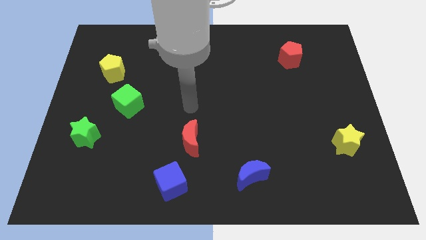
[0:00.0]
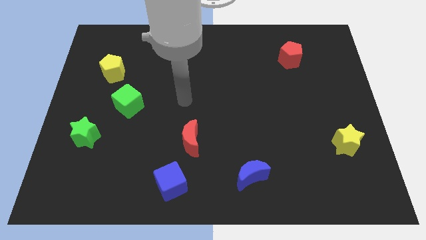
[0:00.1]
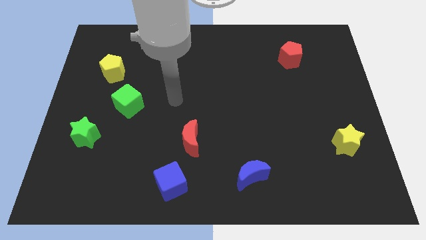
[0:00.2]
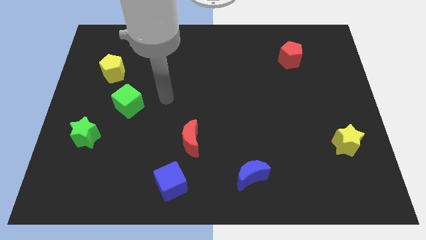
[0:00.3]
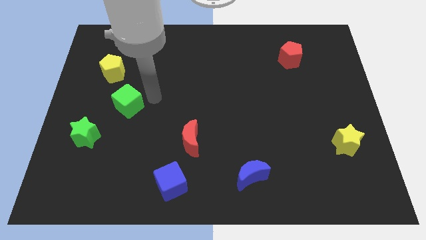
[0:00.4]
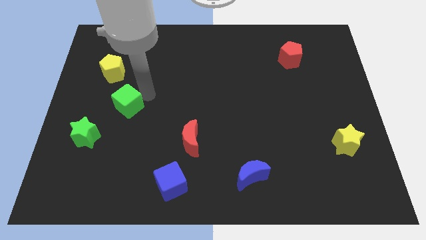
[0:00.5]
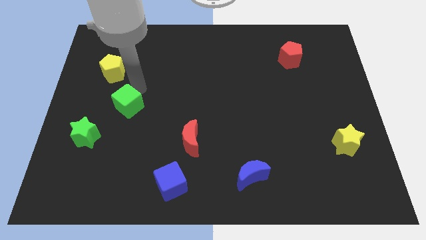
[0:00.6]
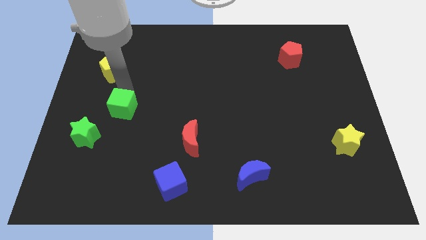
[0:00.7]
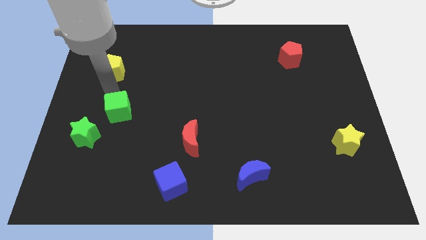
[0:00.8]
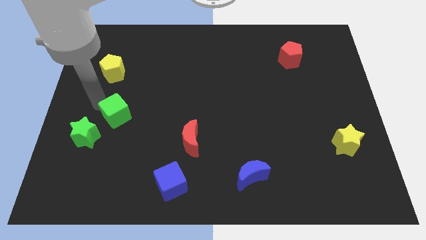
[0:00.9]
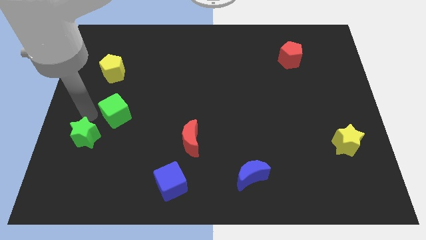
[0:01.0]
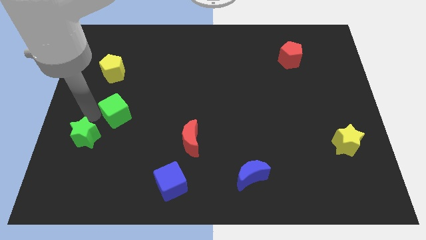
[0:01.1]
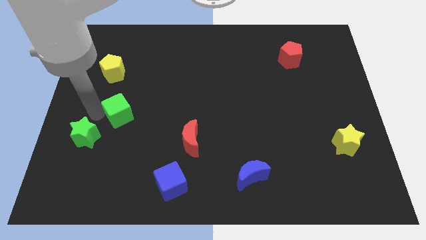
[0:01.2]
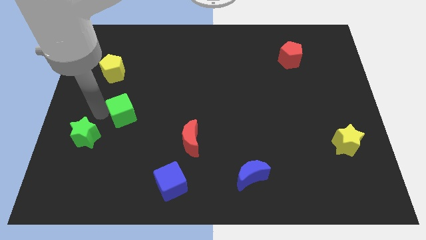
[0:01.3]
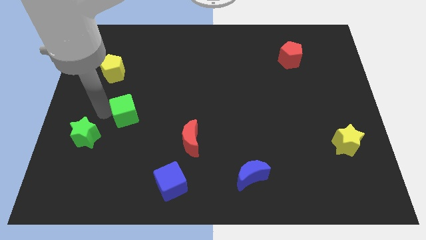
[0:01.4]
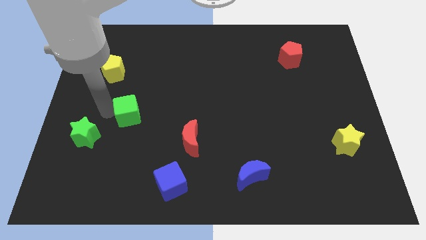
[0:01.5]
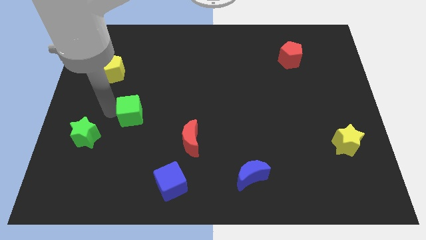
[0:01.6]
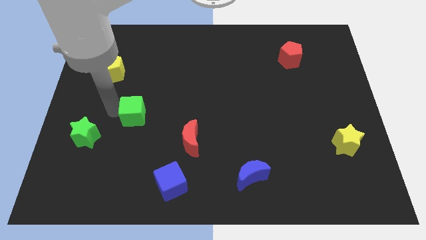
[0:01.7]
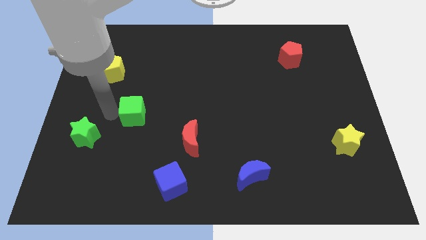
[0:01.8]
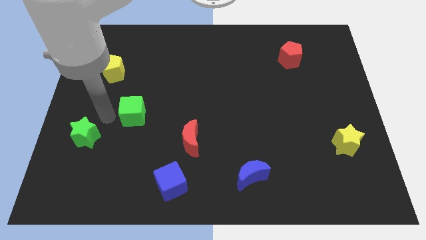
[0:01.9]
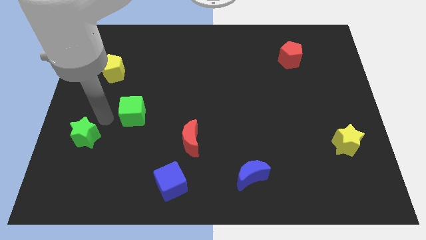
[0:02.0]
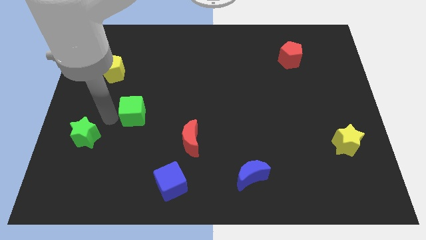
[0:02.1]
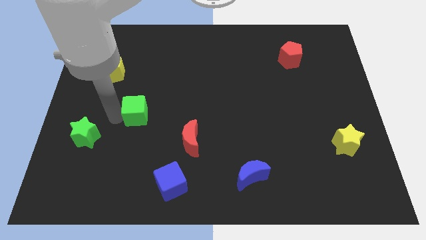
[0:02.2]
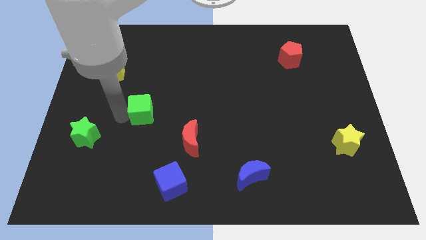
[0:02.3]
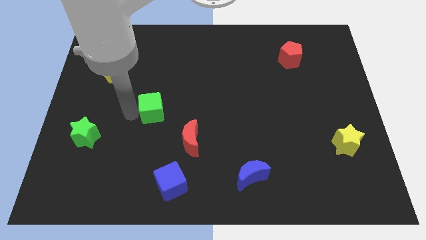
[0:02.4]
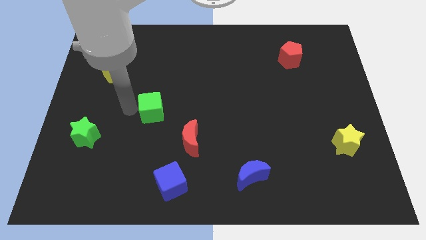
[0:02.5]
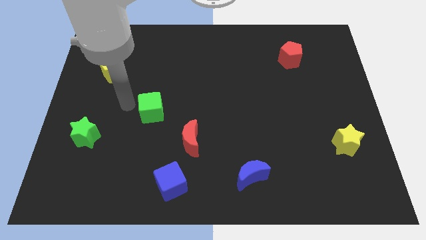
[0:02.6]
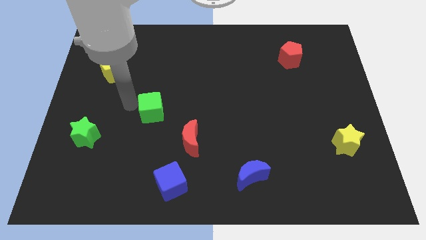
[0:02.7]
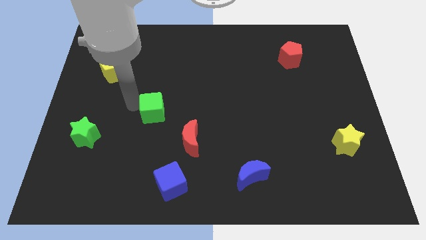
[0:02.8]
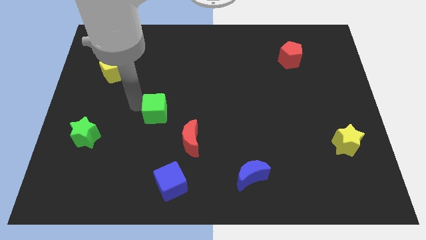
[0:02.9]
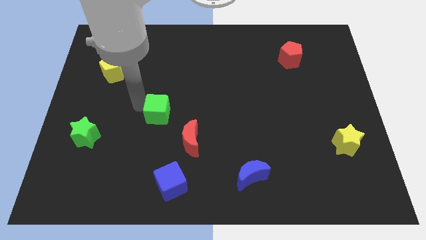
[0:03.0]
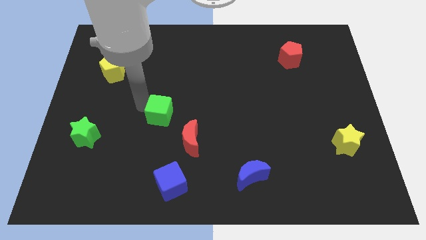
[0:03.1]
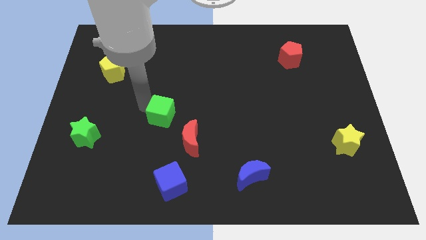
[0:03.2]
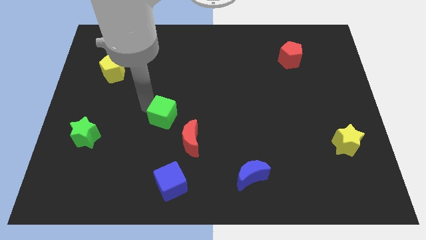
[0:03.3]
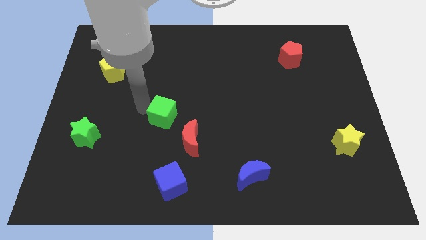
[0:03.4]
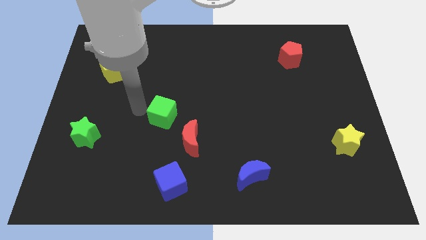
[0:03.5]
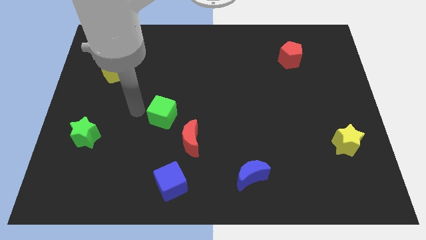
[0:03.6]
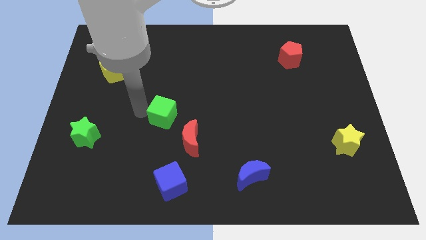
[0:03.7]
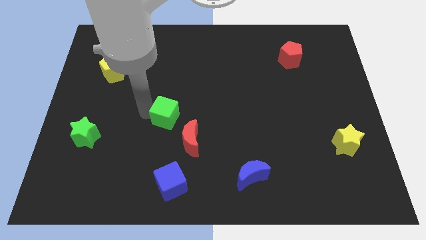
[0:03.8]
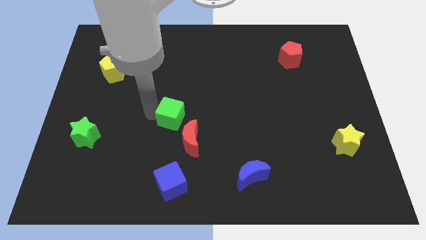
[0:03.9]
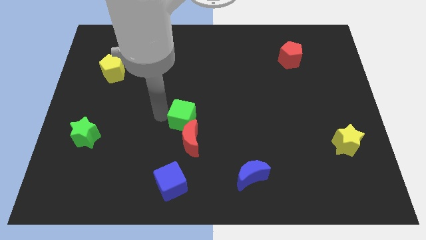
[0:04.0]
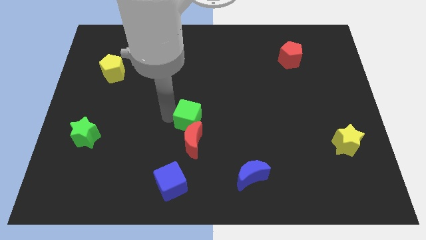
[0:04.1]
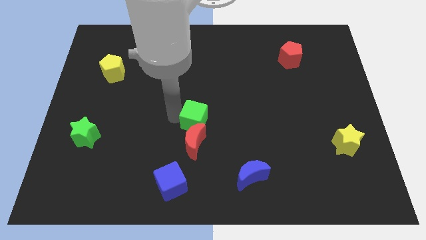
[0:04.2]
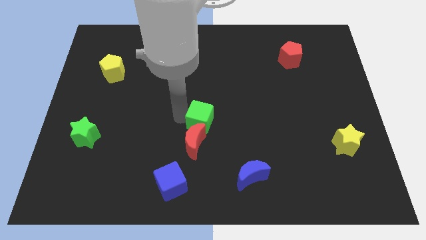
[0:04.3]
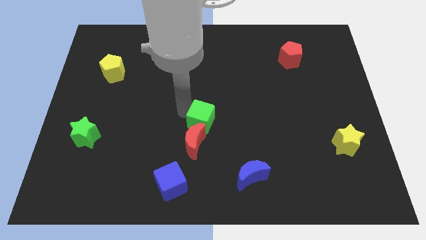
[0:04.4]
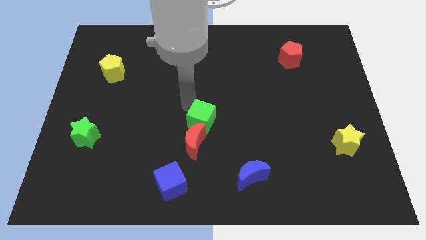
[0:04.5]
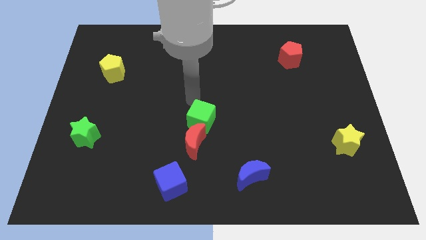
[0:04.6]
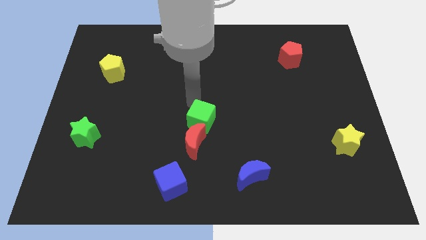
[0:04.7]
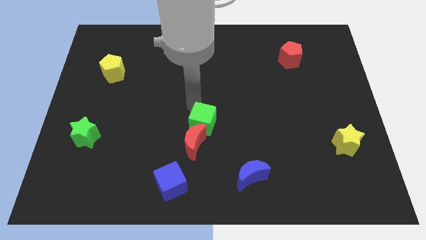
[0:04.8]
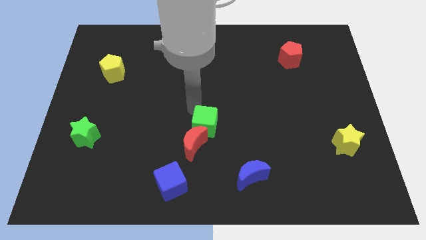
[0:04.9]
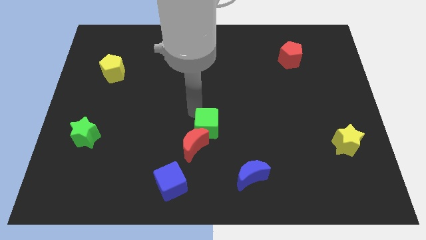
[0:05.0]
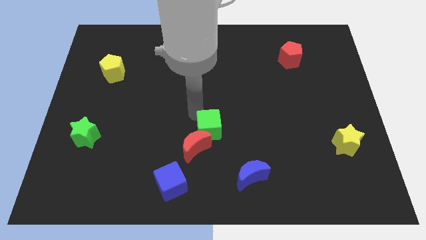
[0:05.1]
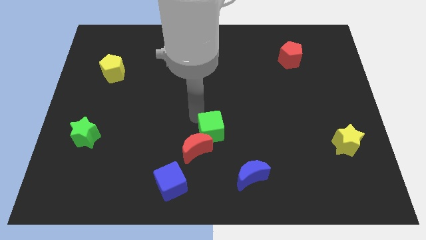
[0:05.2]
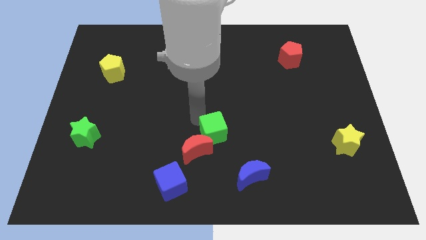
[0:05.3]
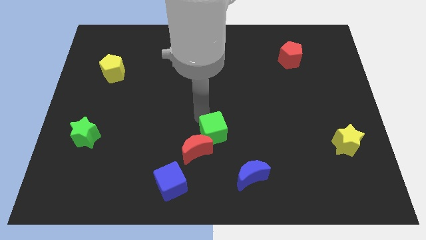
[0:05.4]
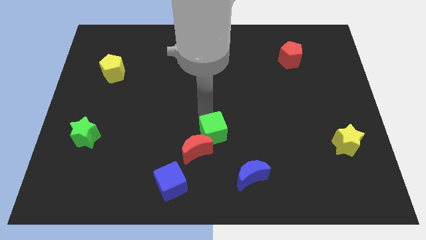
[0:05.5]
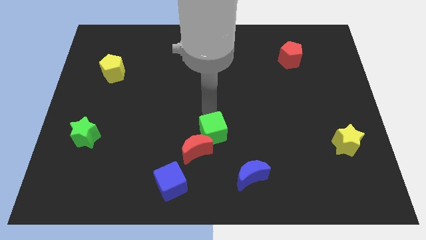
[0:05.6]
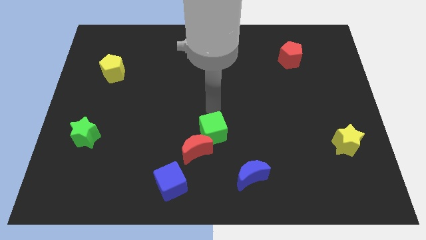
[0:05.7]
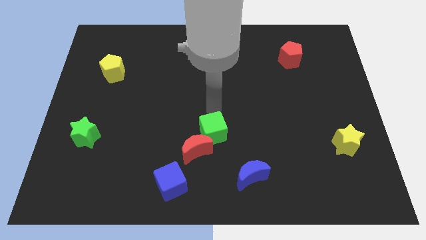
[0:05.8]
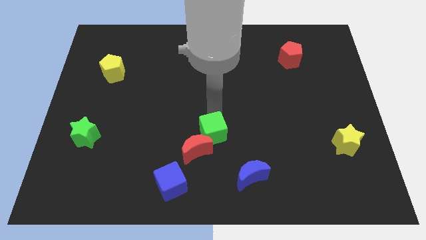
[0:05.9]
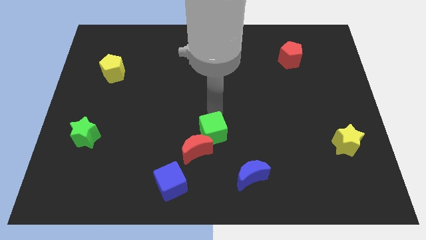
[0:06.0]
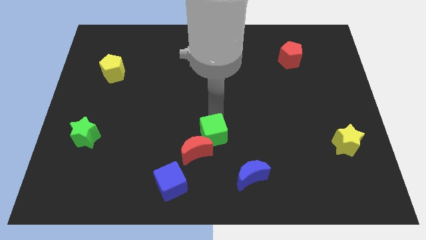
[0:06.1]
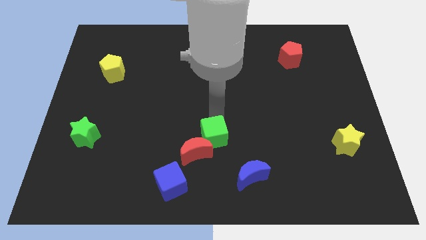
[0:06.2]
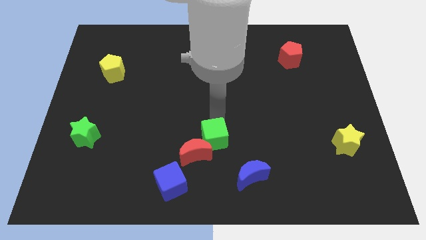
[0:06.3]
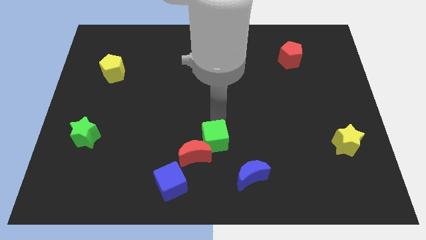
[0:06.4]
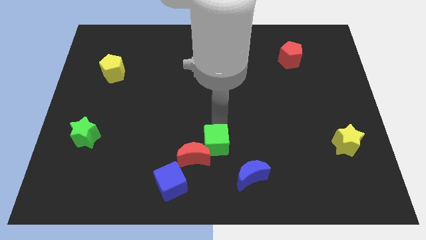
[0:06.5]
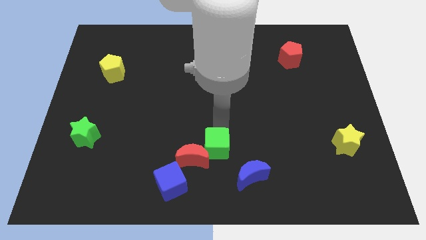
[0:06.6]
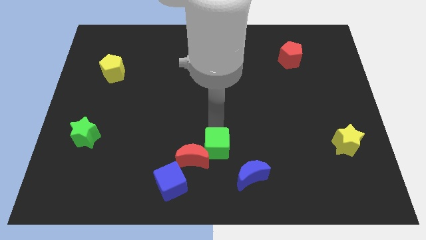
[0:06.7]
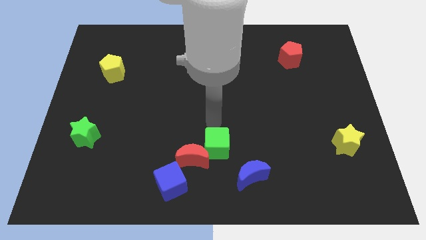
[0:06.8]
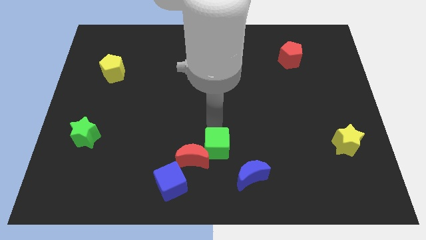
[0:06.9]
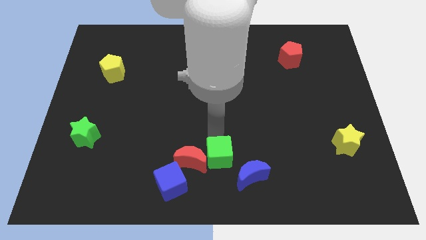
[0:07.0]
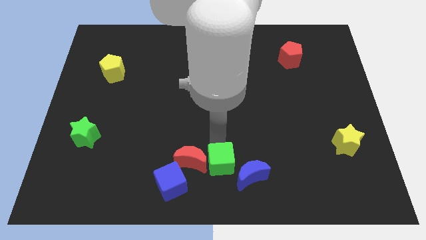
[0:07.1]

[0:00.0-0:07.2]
push the green cube right of the blue cube

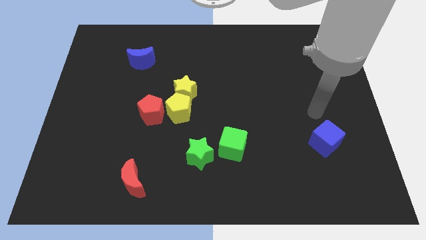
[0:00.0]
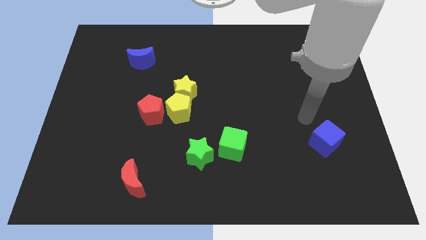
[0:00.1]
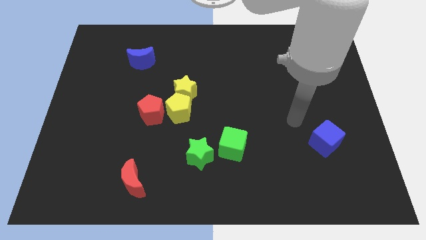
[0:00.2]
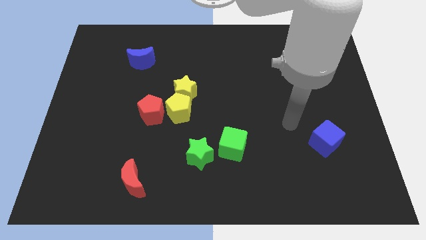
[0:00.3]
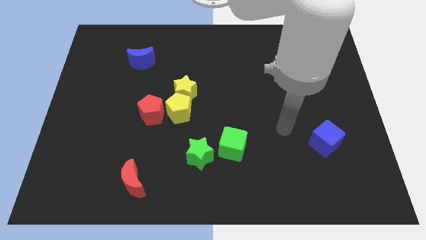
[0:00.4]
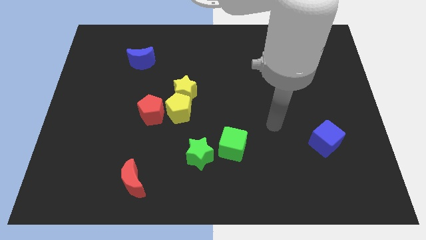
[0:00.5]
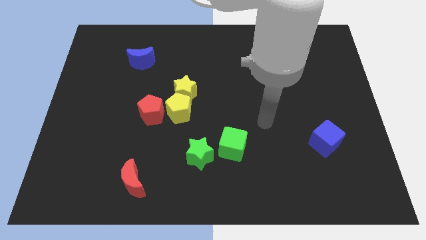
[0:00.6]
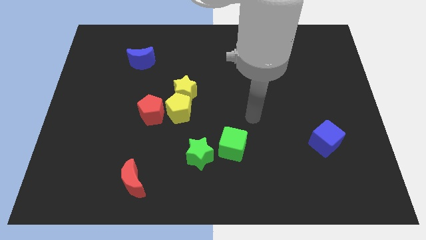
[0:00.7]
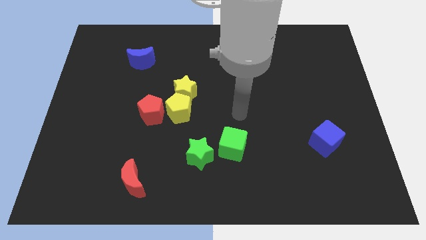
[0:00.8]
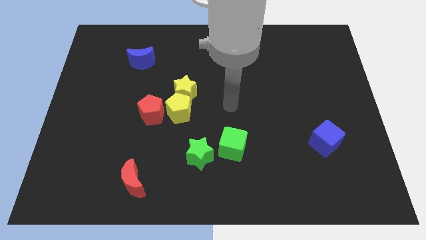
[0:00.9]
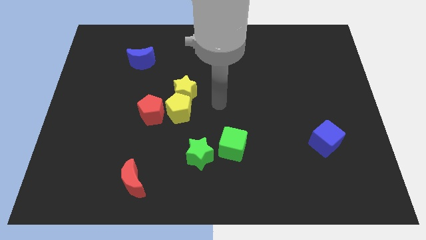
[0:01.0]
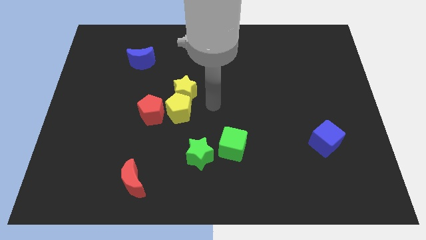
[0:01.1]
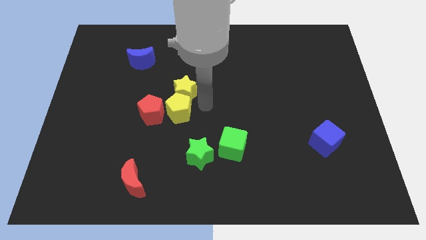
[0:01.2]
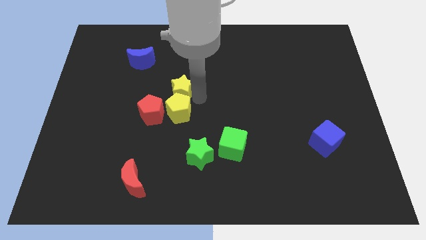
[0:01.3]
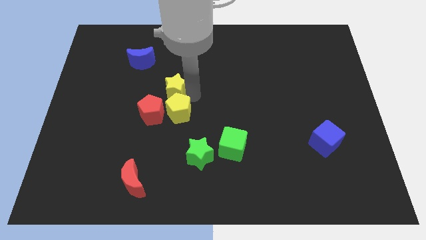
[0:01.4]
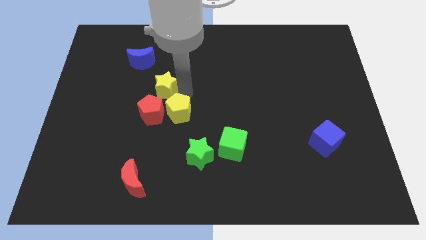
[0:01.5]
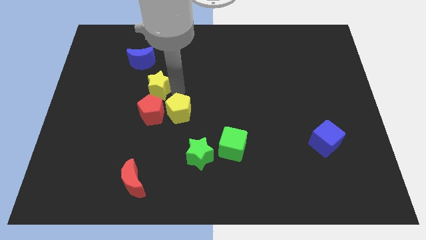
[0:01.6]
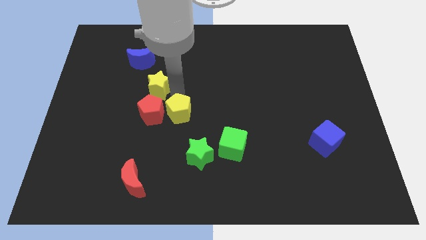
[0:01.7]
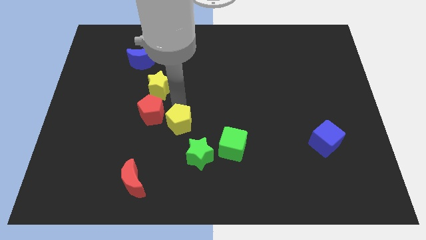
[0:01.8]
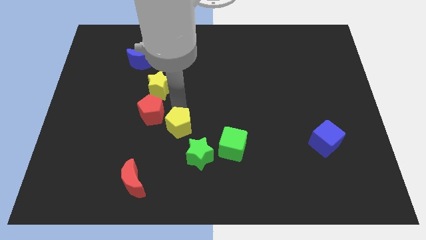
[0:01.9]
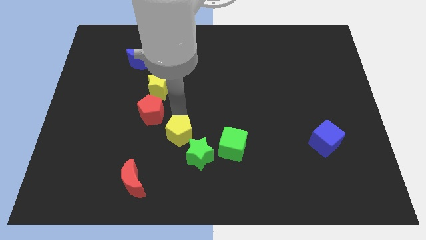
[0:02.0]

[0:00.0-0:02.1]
move the yellow pentagon just left of the green cube
